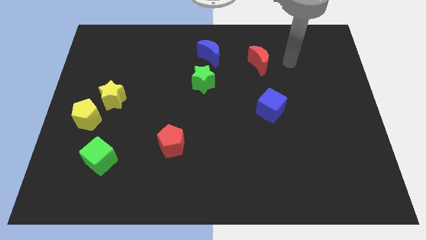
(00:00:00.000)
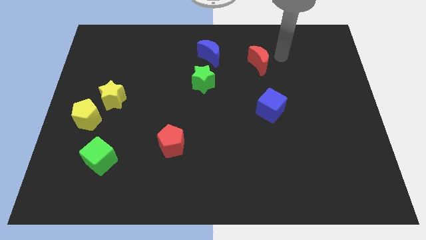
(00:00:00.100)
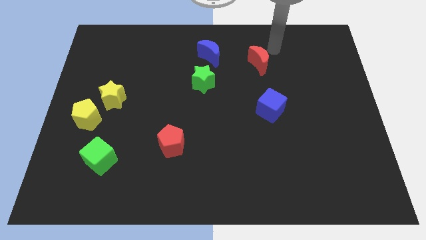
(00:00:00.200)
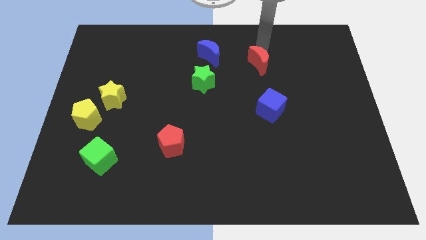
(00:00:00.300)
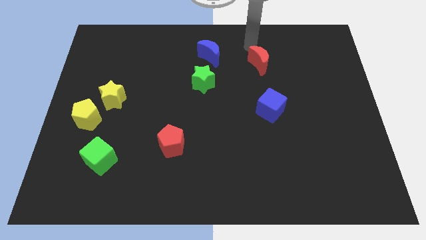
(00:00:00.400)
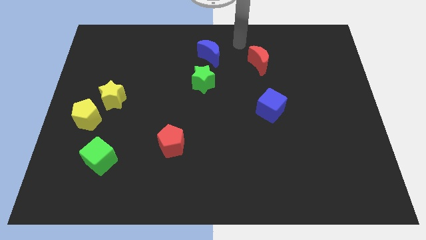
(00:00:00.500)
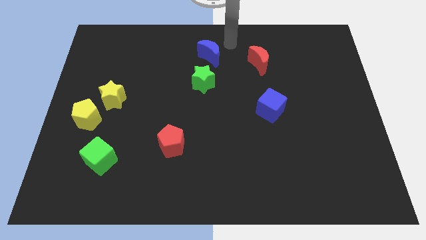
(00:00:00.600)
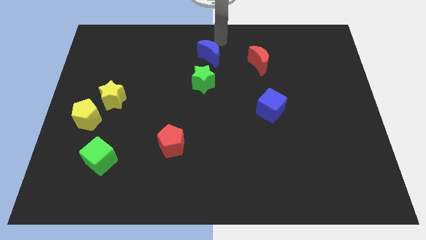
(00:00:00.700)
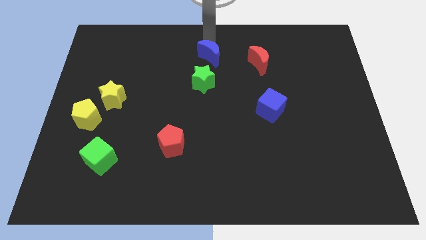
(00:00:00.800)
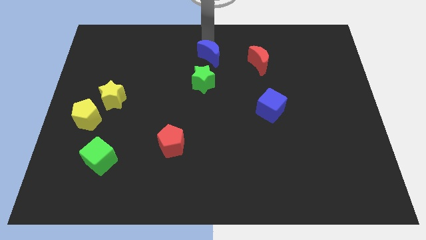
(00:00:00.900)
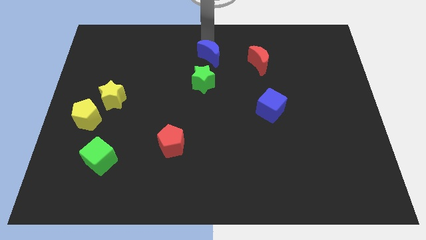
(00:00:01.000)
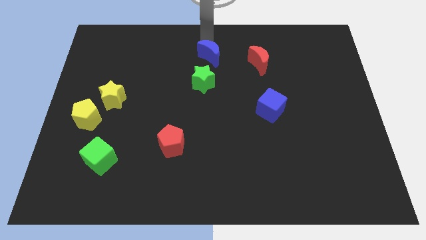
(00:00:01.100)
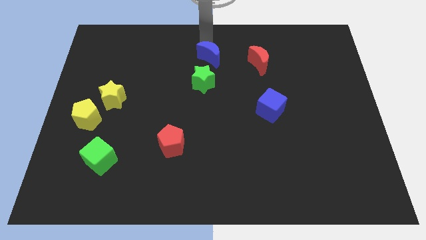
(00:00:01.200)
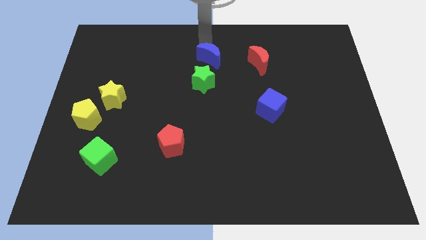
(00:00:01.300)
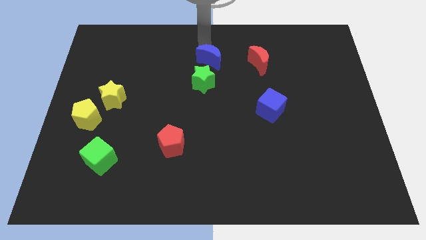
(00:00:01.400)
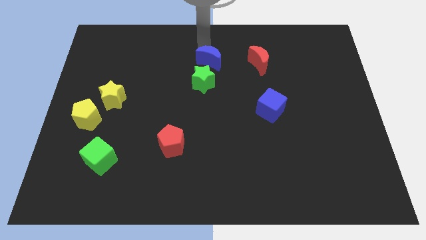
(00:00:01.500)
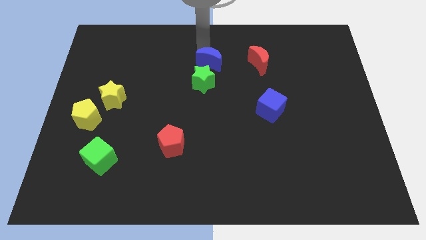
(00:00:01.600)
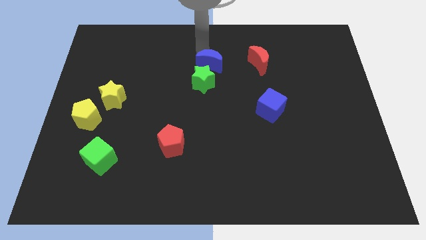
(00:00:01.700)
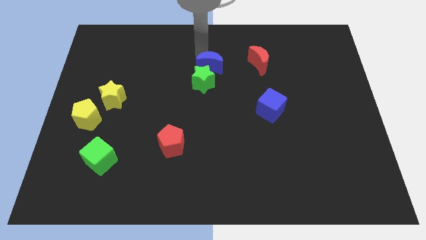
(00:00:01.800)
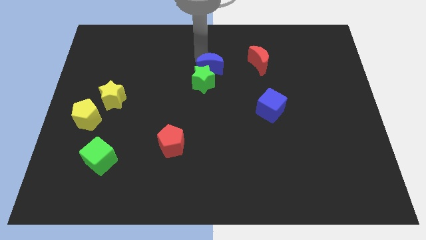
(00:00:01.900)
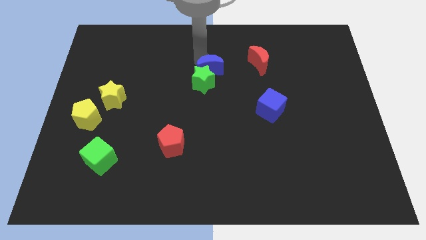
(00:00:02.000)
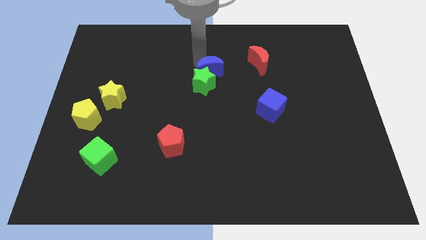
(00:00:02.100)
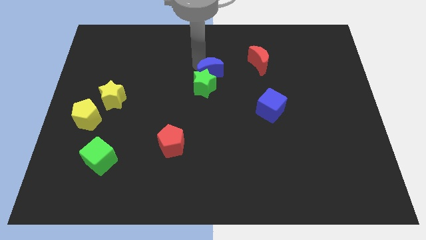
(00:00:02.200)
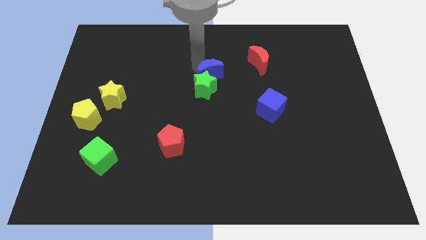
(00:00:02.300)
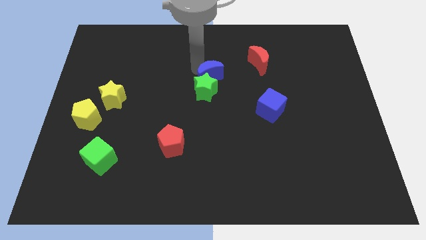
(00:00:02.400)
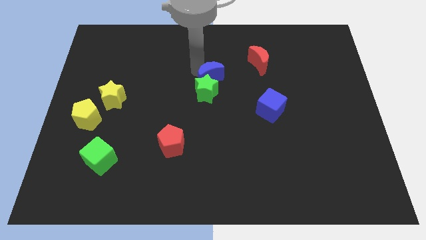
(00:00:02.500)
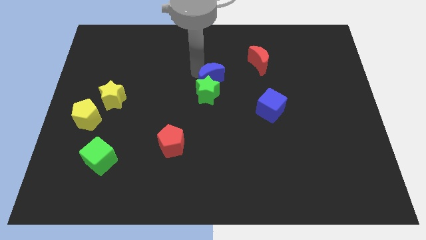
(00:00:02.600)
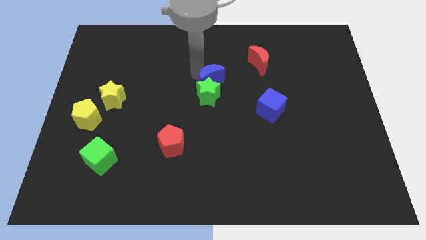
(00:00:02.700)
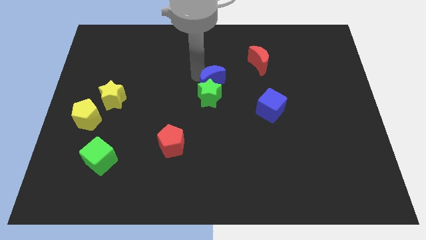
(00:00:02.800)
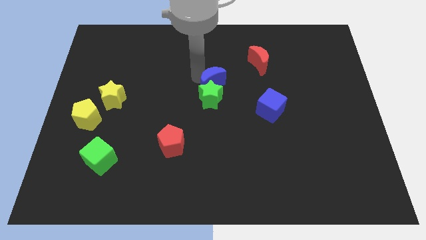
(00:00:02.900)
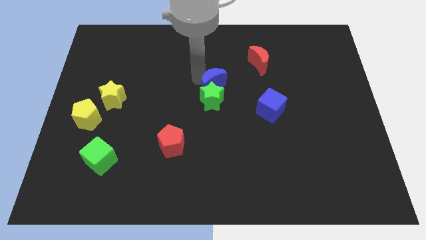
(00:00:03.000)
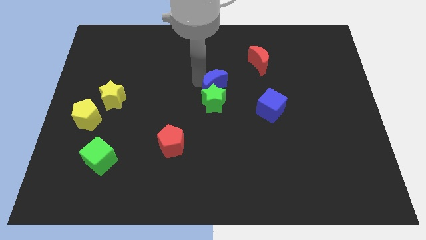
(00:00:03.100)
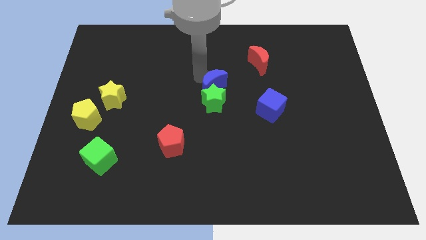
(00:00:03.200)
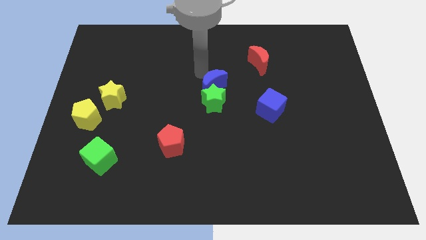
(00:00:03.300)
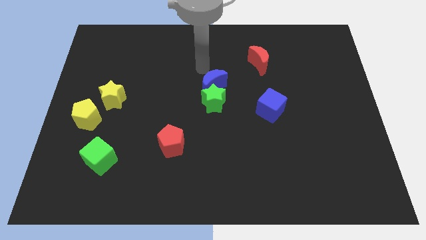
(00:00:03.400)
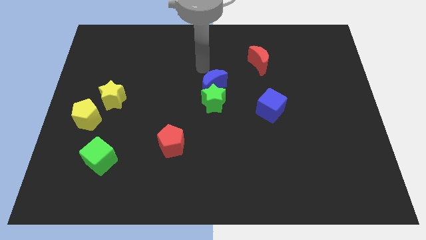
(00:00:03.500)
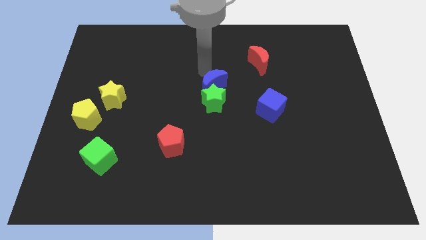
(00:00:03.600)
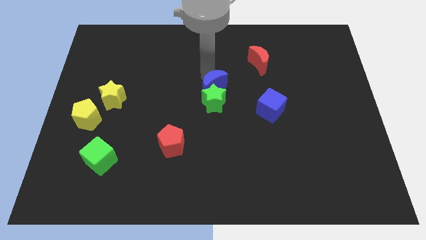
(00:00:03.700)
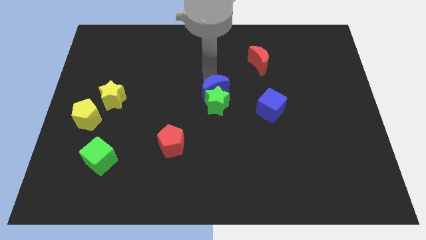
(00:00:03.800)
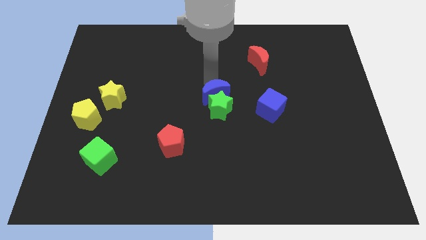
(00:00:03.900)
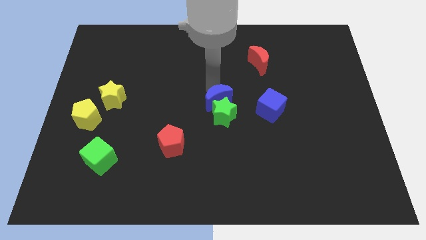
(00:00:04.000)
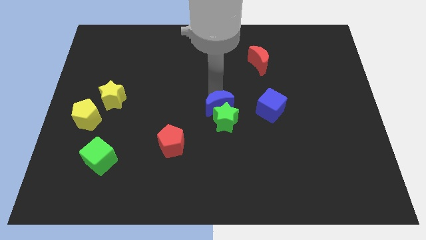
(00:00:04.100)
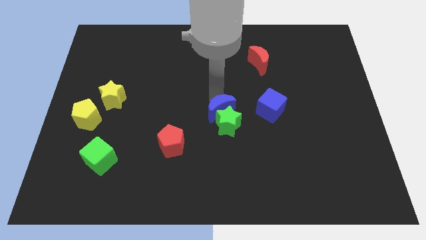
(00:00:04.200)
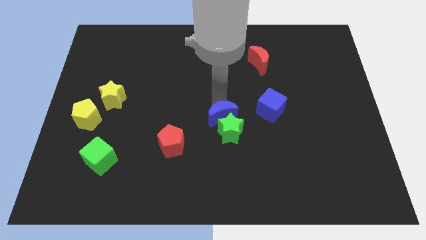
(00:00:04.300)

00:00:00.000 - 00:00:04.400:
move the blue moon down

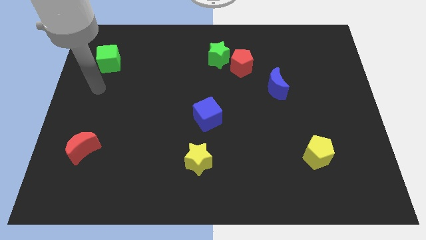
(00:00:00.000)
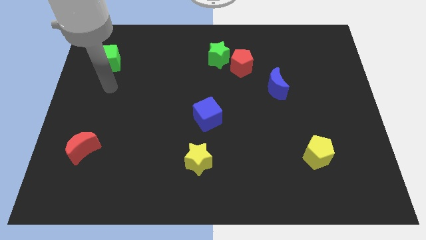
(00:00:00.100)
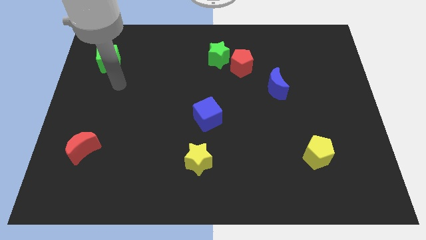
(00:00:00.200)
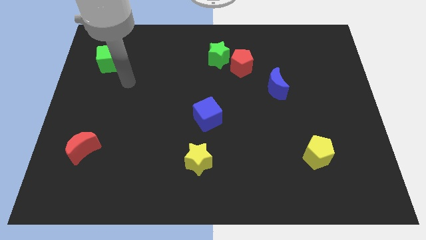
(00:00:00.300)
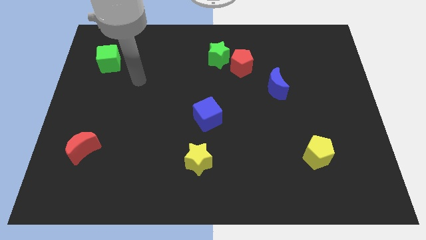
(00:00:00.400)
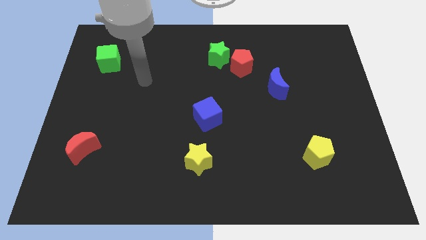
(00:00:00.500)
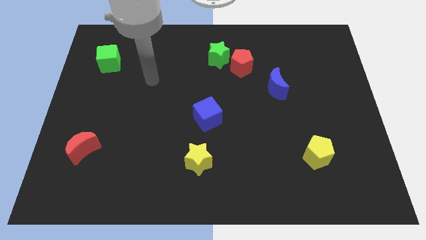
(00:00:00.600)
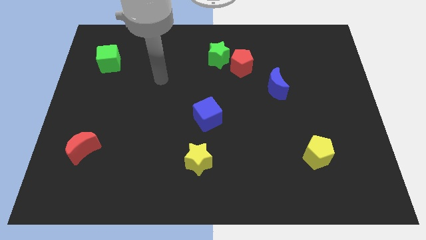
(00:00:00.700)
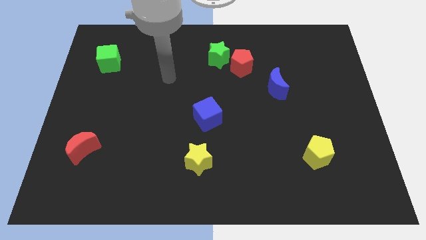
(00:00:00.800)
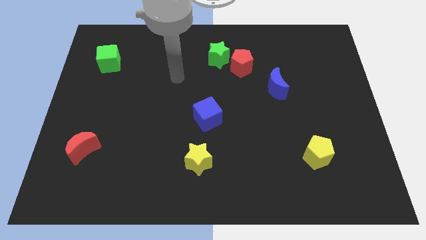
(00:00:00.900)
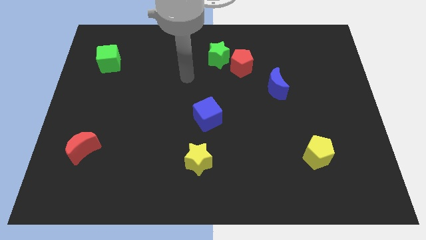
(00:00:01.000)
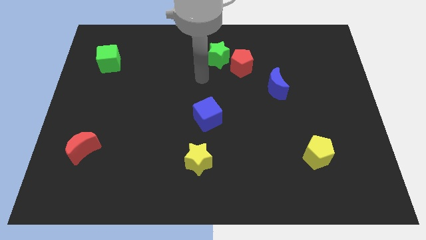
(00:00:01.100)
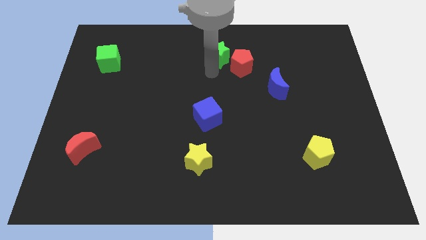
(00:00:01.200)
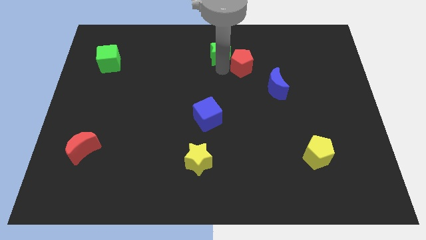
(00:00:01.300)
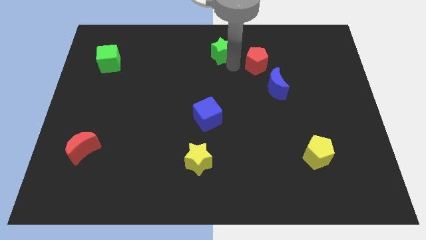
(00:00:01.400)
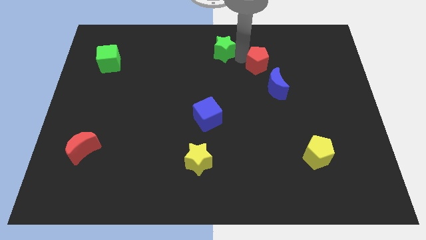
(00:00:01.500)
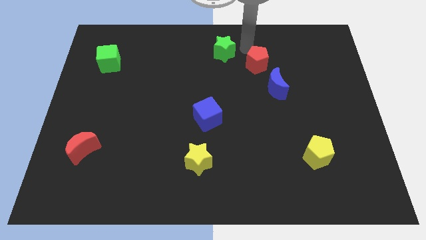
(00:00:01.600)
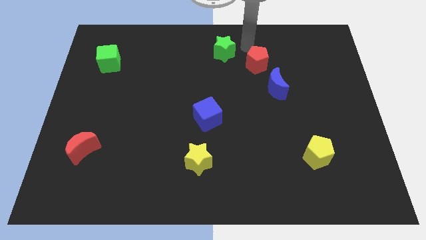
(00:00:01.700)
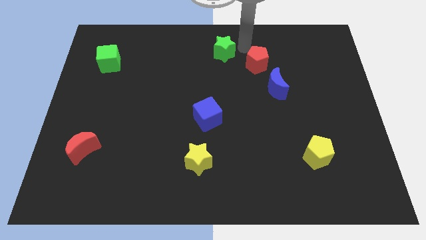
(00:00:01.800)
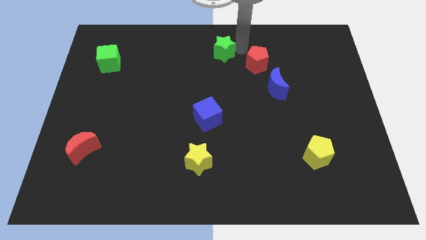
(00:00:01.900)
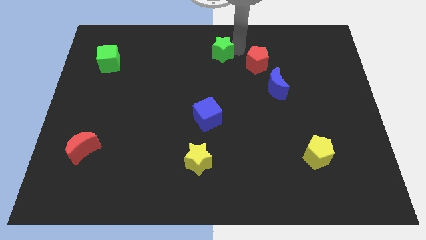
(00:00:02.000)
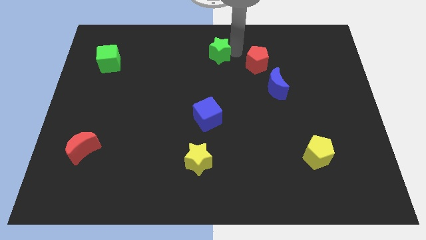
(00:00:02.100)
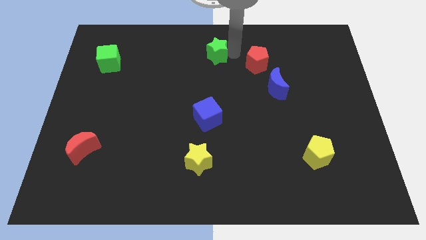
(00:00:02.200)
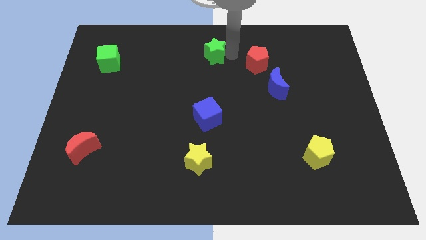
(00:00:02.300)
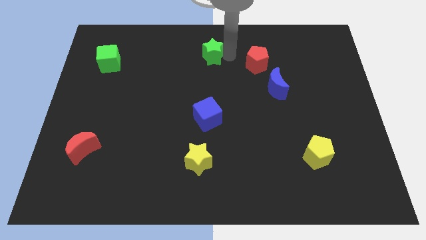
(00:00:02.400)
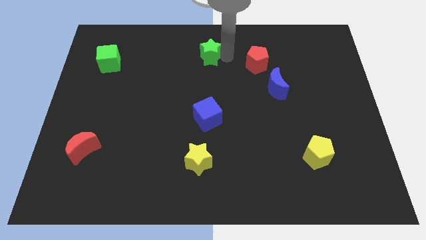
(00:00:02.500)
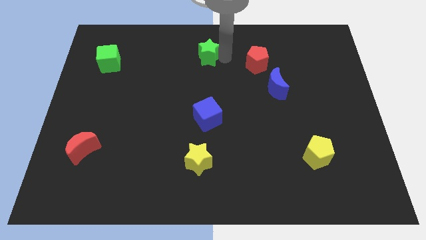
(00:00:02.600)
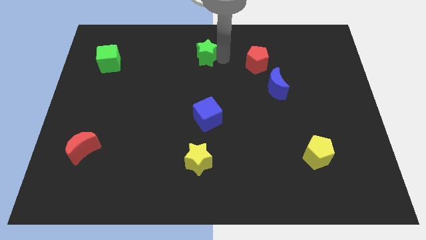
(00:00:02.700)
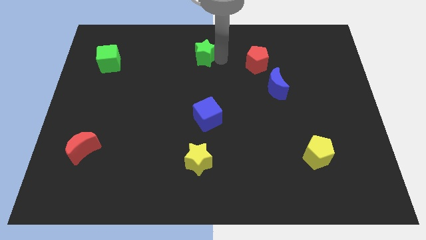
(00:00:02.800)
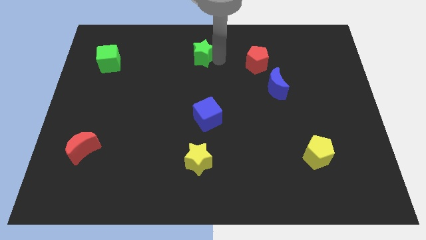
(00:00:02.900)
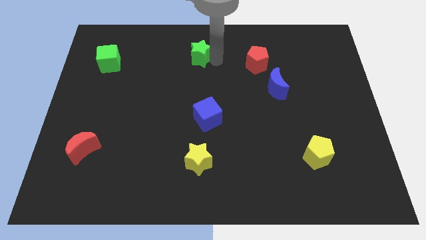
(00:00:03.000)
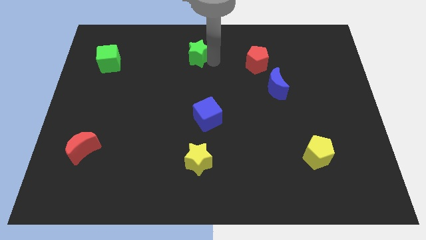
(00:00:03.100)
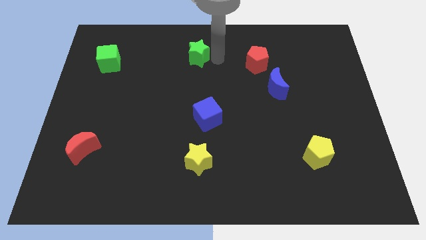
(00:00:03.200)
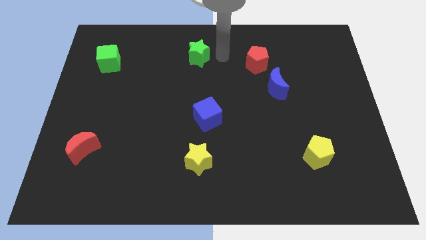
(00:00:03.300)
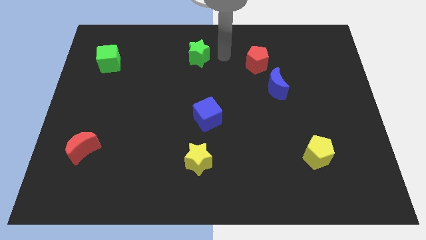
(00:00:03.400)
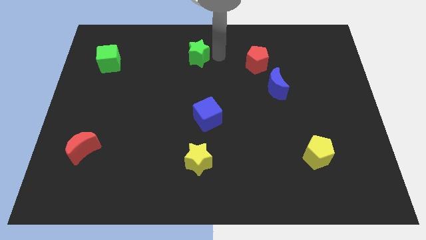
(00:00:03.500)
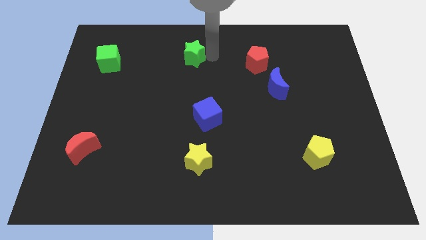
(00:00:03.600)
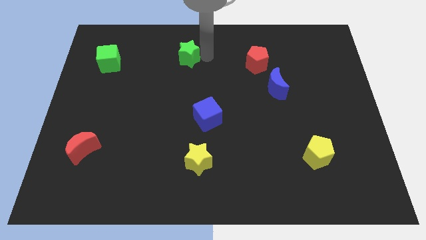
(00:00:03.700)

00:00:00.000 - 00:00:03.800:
move the green star slightly left
